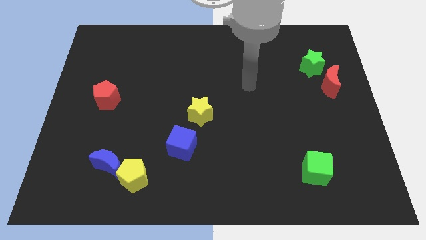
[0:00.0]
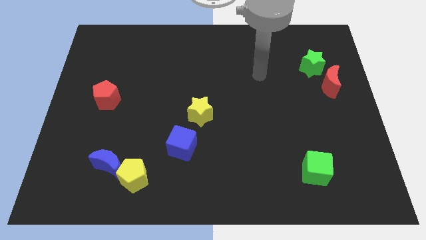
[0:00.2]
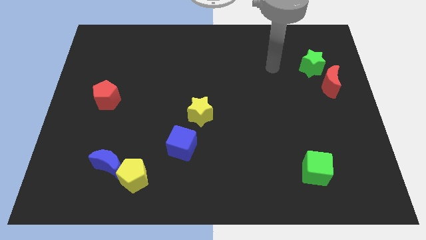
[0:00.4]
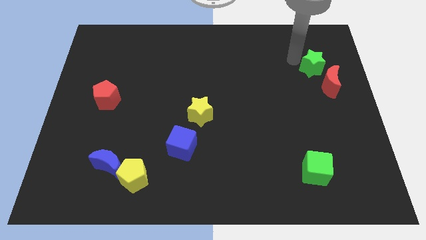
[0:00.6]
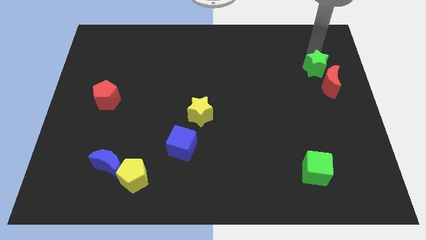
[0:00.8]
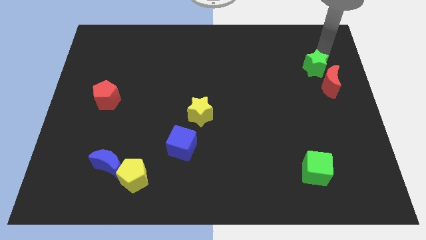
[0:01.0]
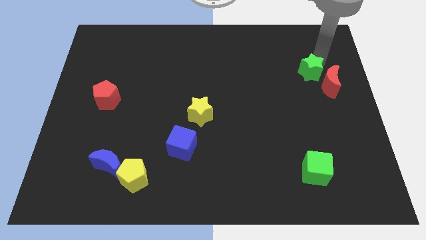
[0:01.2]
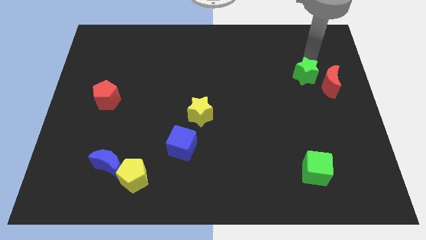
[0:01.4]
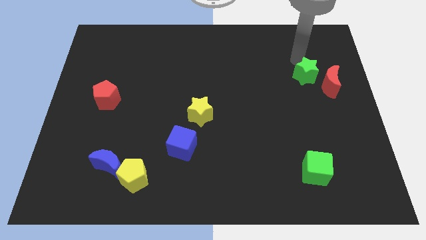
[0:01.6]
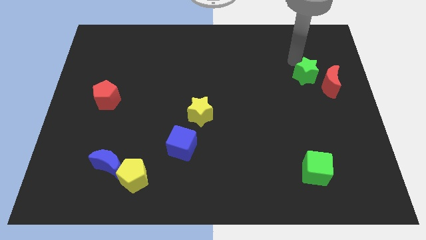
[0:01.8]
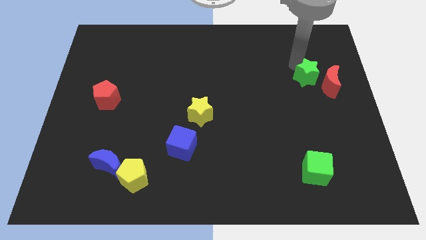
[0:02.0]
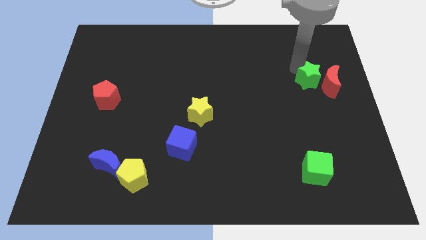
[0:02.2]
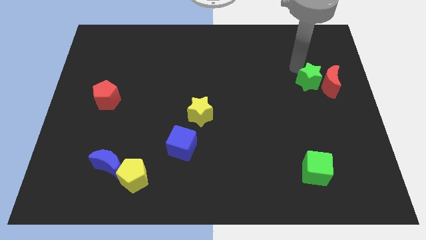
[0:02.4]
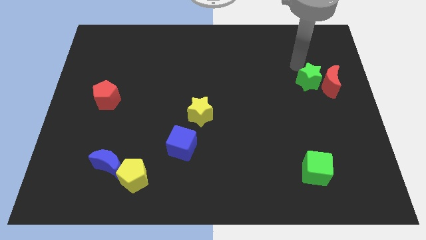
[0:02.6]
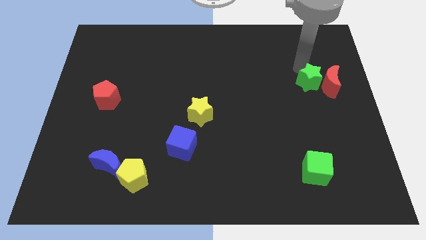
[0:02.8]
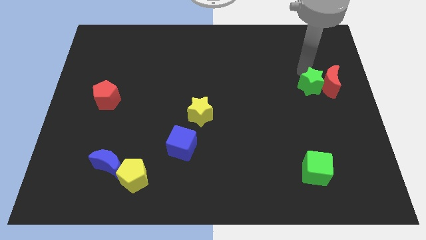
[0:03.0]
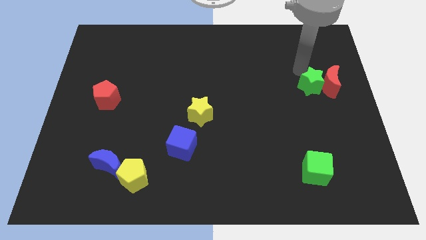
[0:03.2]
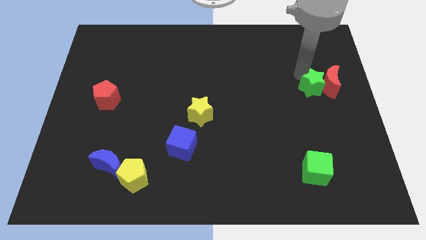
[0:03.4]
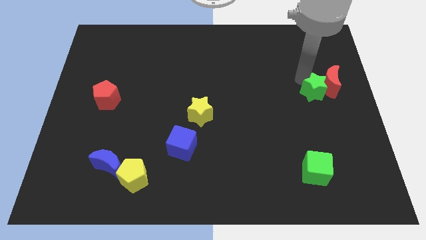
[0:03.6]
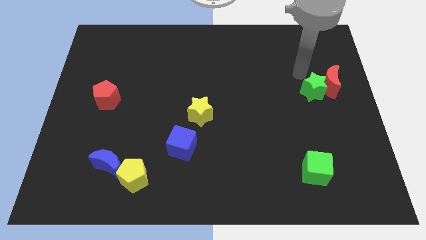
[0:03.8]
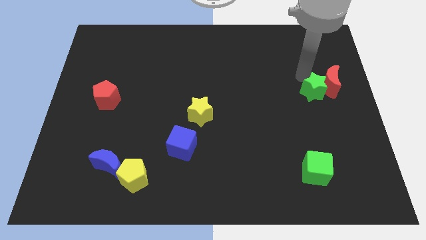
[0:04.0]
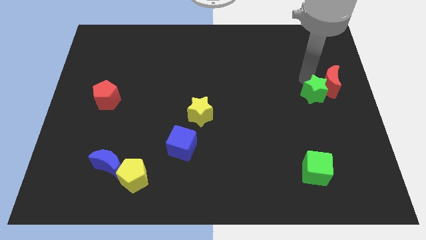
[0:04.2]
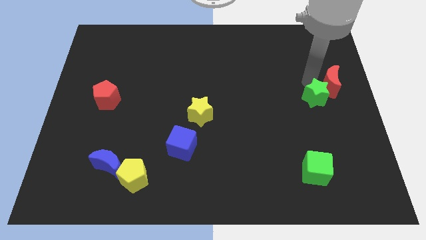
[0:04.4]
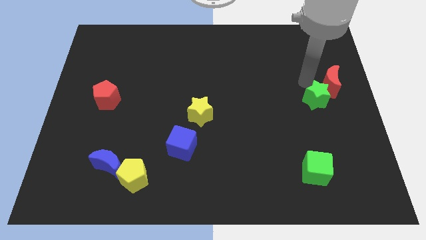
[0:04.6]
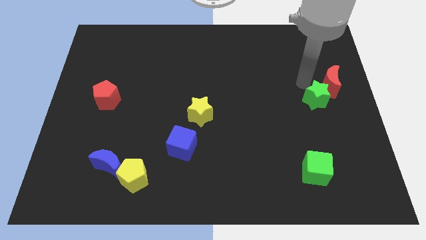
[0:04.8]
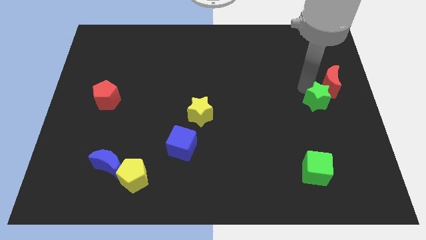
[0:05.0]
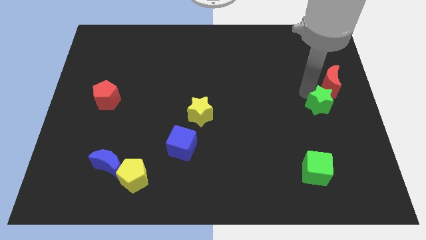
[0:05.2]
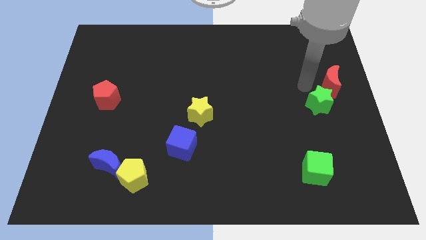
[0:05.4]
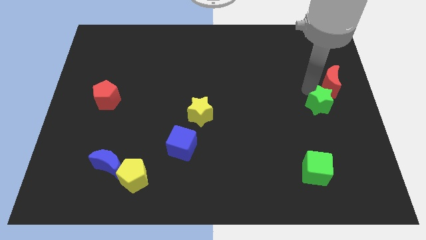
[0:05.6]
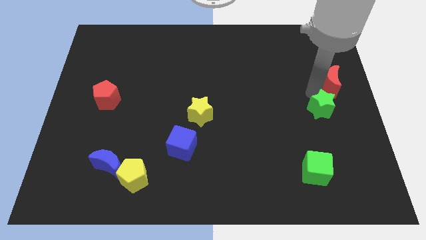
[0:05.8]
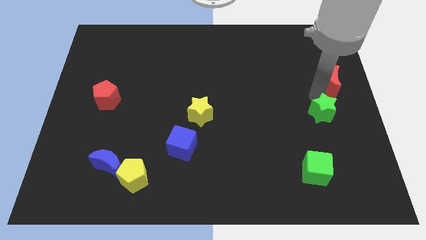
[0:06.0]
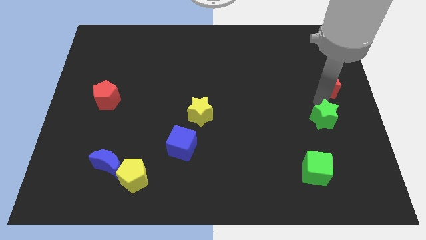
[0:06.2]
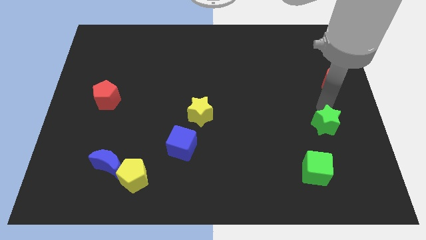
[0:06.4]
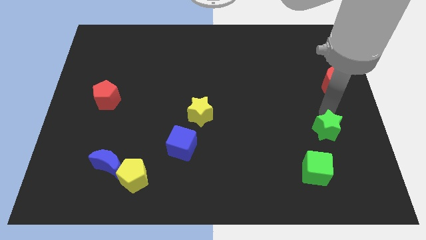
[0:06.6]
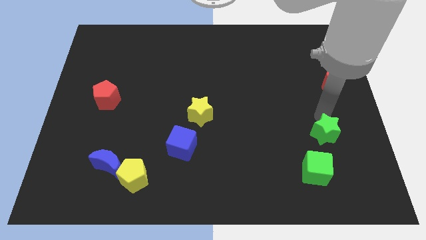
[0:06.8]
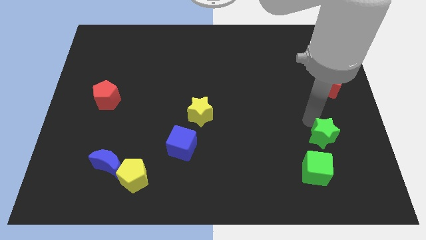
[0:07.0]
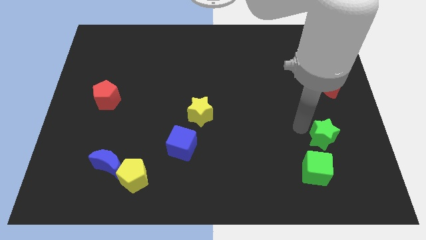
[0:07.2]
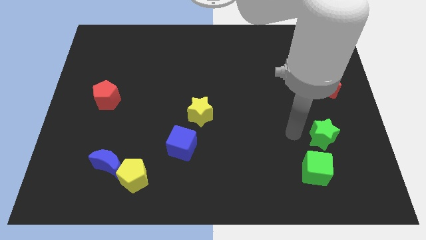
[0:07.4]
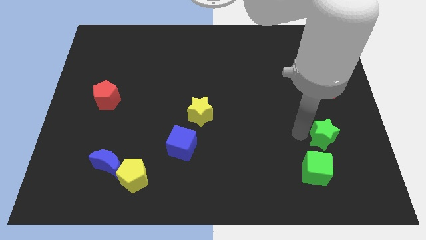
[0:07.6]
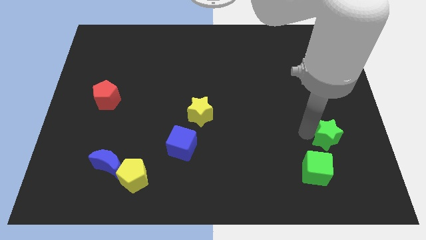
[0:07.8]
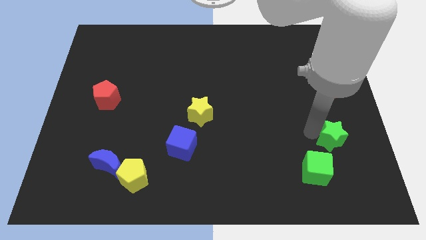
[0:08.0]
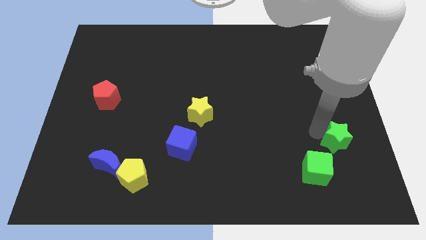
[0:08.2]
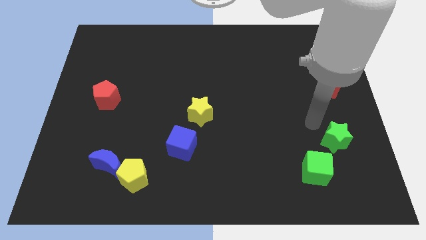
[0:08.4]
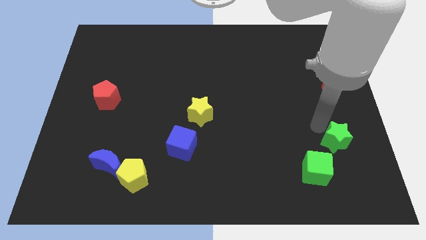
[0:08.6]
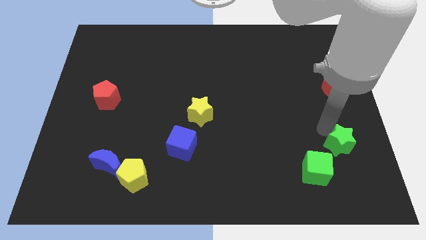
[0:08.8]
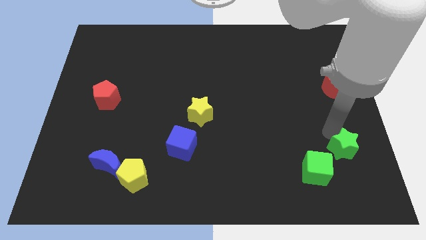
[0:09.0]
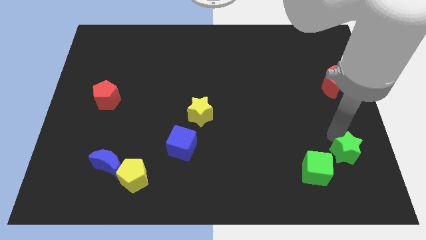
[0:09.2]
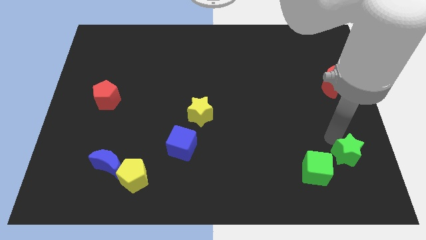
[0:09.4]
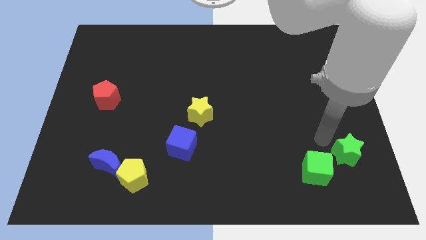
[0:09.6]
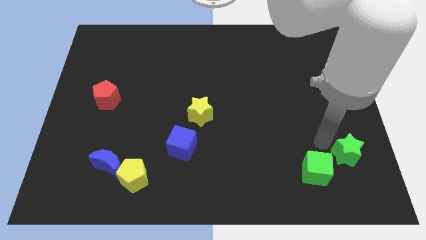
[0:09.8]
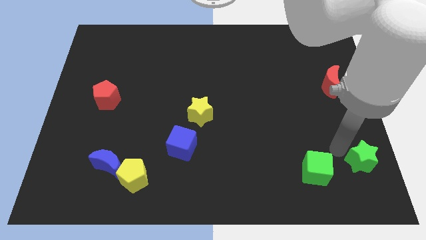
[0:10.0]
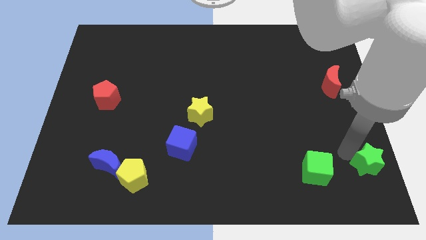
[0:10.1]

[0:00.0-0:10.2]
move the green star to the lower right corner

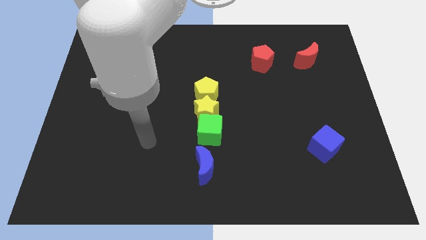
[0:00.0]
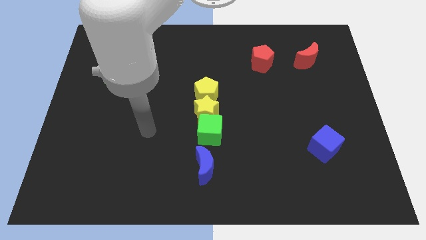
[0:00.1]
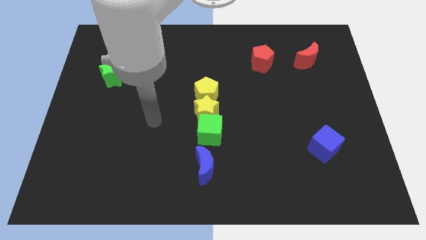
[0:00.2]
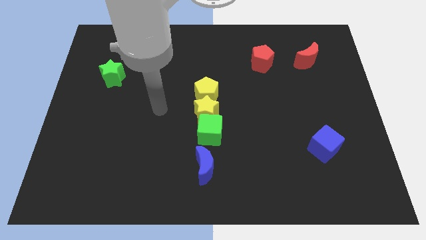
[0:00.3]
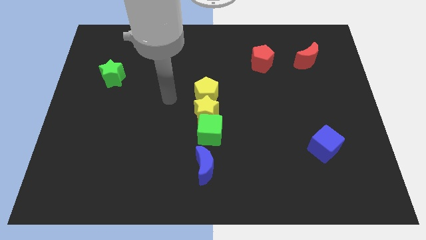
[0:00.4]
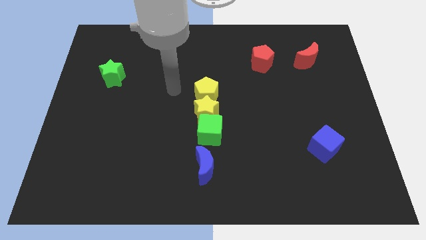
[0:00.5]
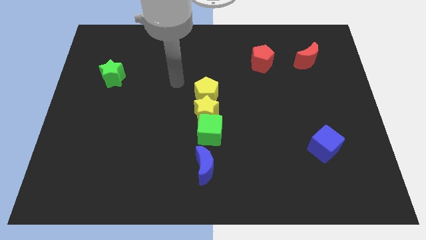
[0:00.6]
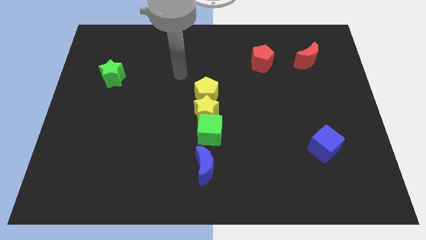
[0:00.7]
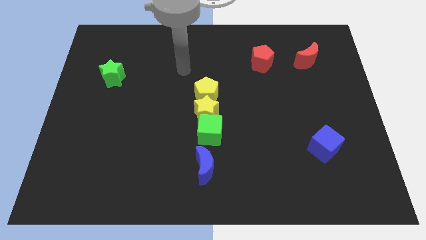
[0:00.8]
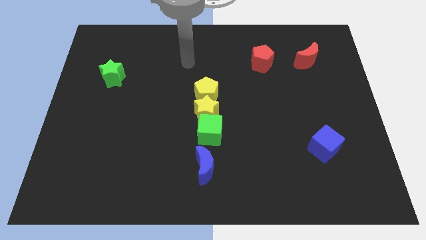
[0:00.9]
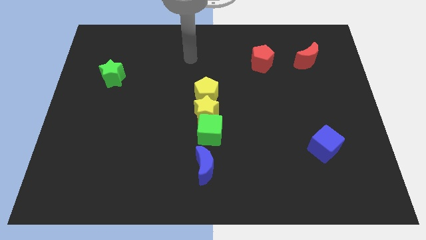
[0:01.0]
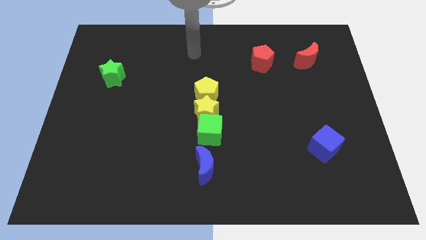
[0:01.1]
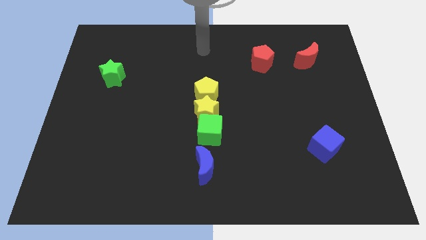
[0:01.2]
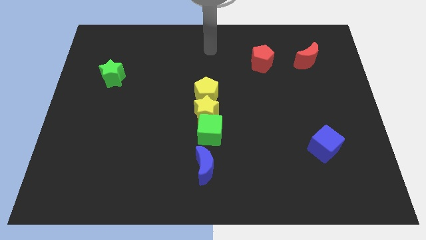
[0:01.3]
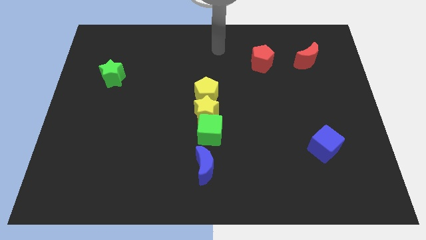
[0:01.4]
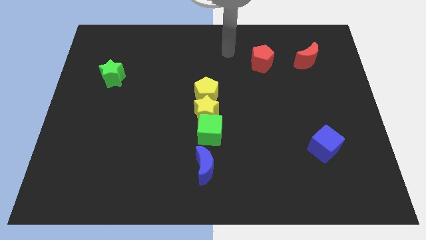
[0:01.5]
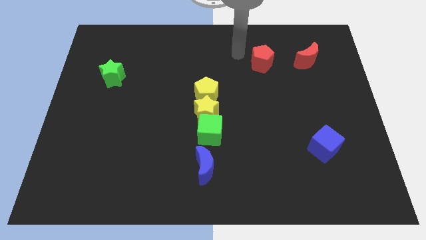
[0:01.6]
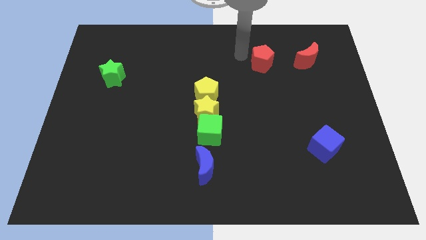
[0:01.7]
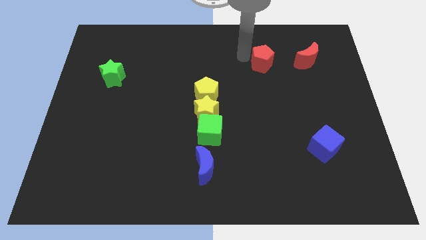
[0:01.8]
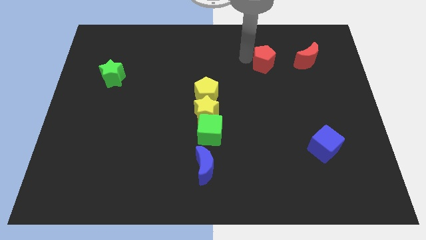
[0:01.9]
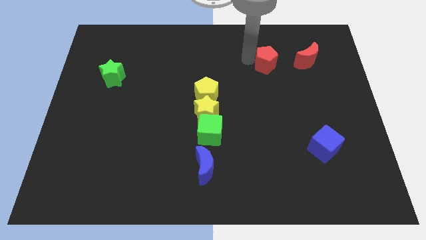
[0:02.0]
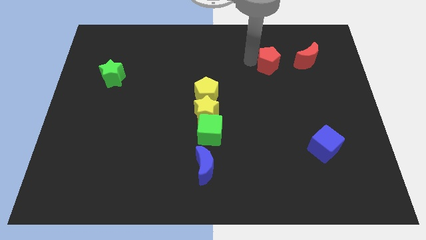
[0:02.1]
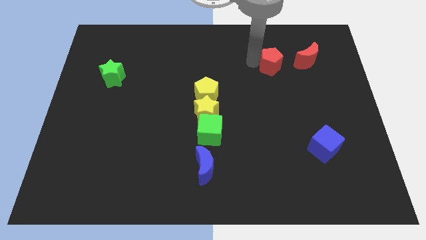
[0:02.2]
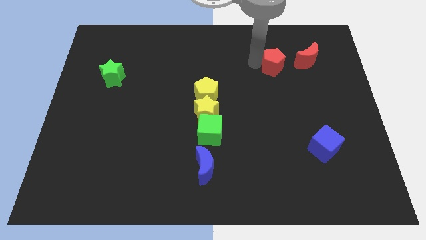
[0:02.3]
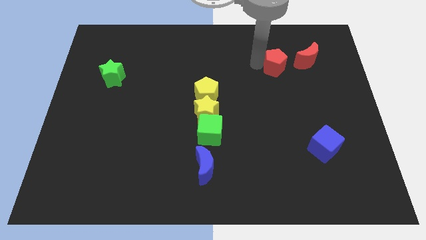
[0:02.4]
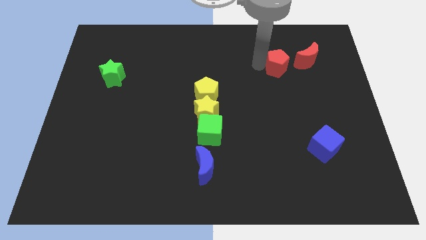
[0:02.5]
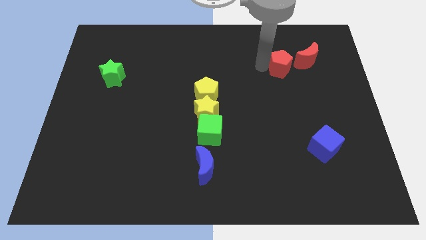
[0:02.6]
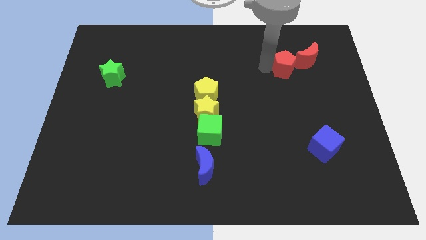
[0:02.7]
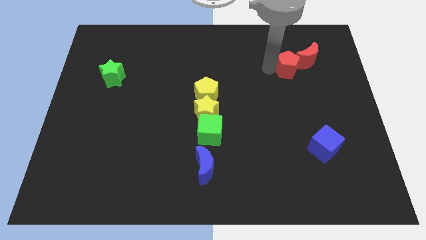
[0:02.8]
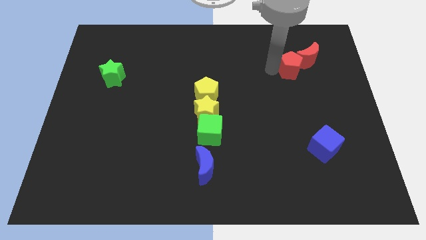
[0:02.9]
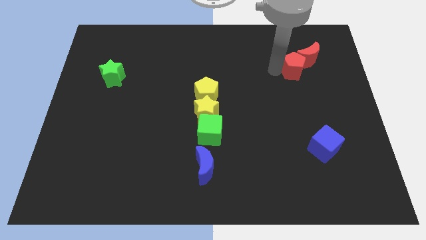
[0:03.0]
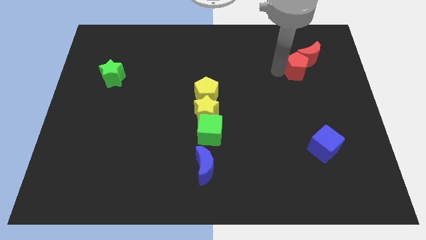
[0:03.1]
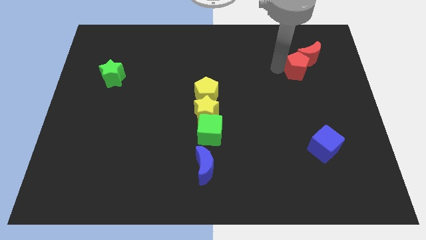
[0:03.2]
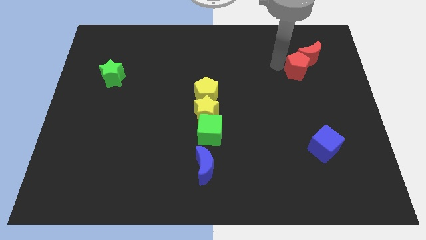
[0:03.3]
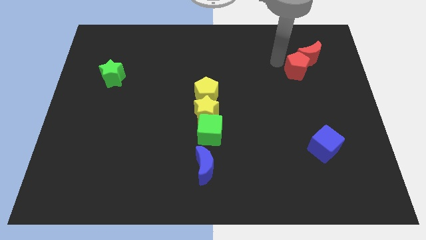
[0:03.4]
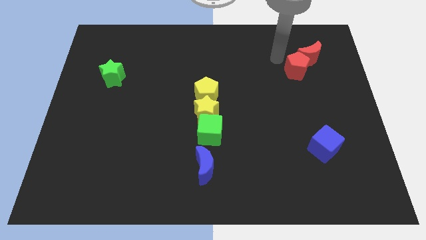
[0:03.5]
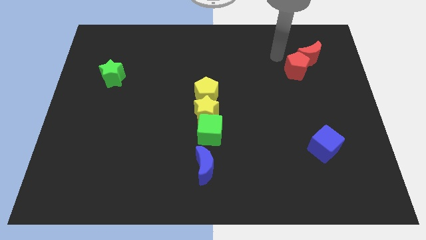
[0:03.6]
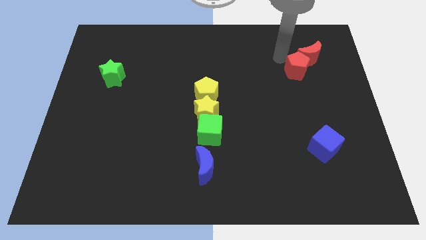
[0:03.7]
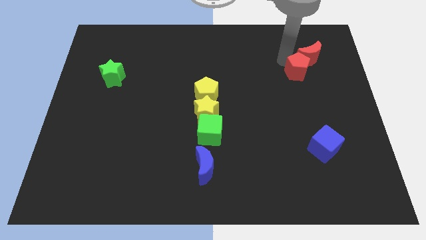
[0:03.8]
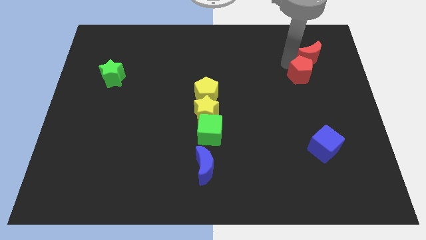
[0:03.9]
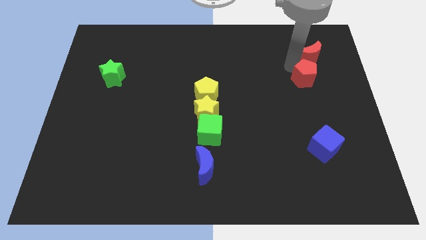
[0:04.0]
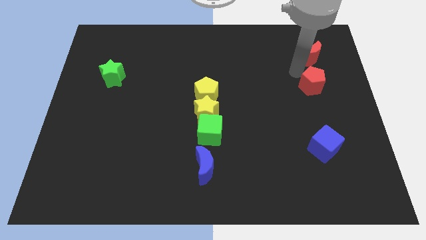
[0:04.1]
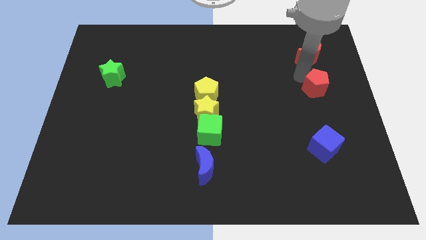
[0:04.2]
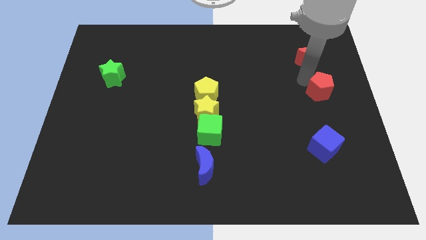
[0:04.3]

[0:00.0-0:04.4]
put the red pentagon to the right side of the board
